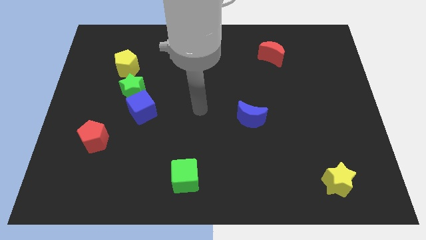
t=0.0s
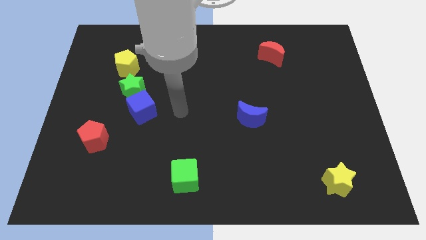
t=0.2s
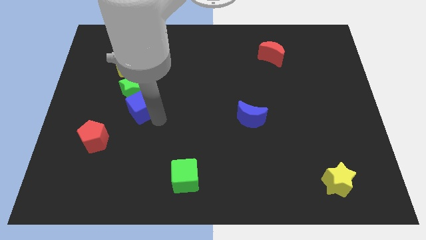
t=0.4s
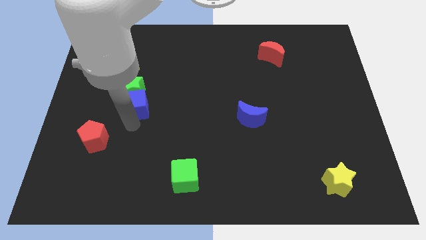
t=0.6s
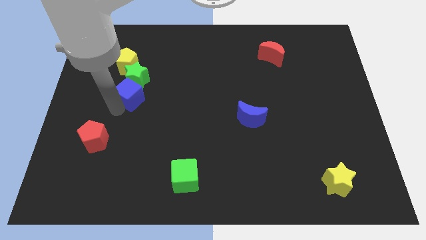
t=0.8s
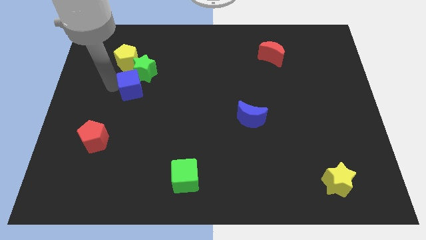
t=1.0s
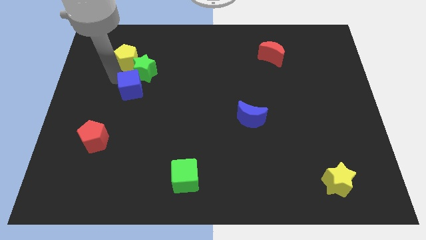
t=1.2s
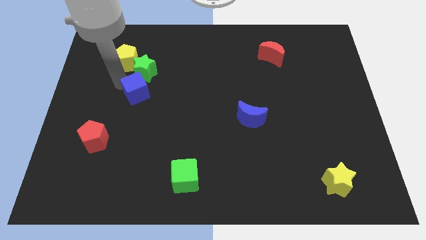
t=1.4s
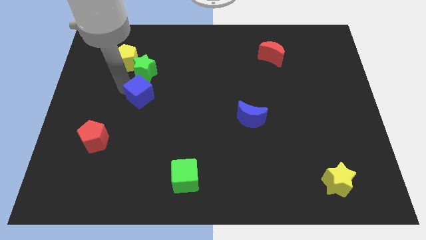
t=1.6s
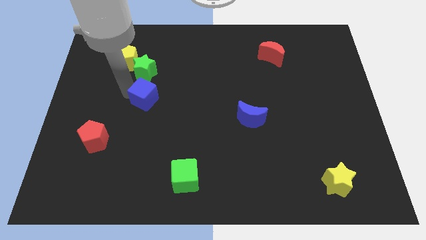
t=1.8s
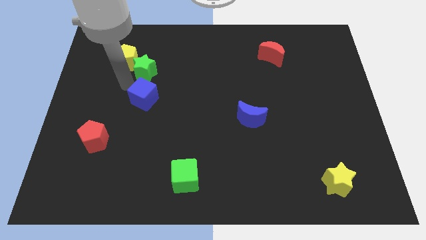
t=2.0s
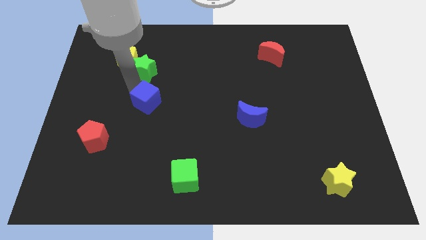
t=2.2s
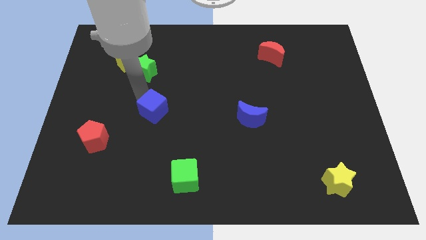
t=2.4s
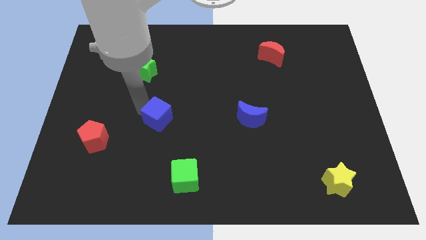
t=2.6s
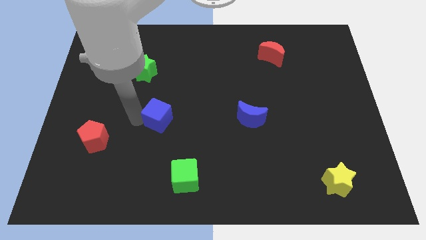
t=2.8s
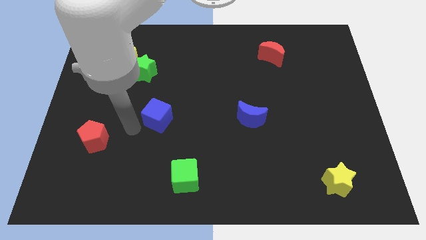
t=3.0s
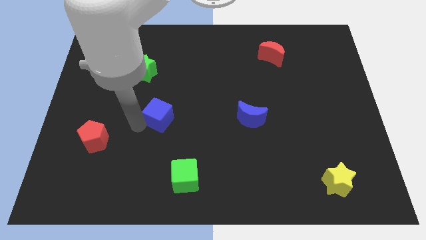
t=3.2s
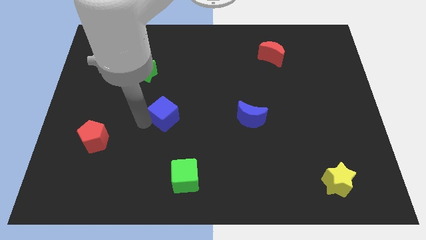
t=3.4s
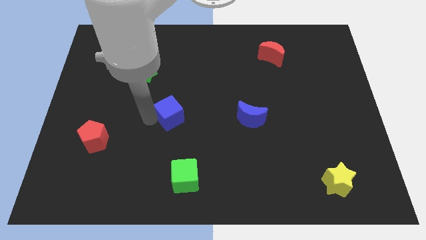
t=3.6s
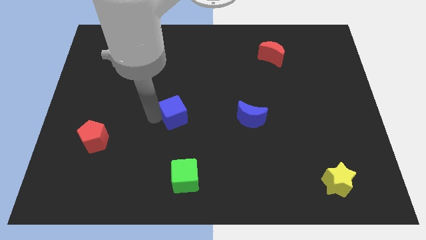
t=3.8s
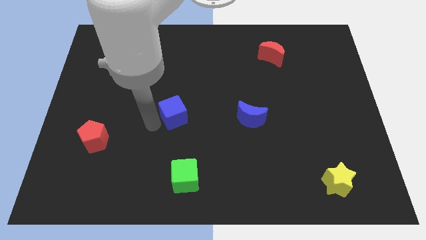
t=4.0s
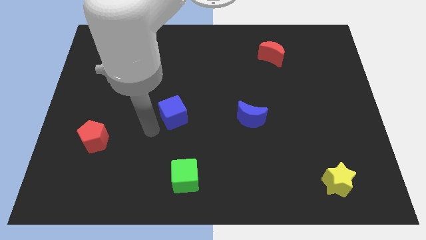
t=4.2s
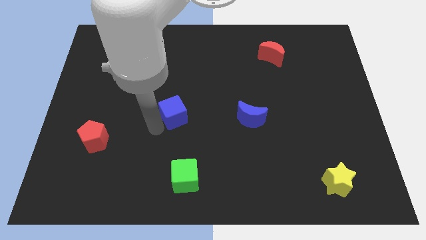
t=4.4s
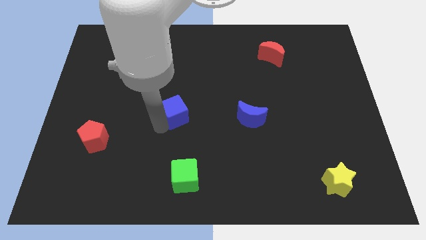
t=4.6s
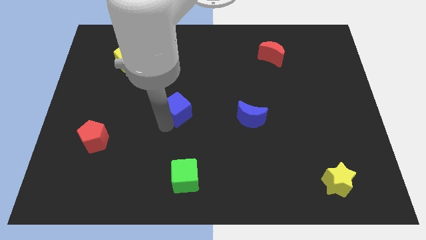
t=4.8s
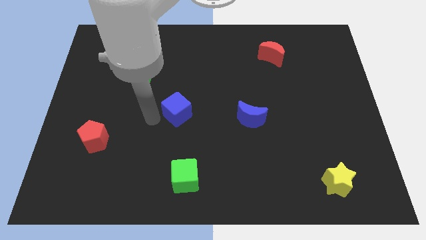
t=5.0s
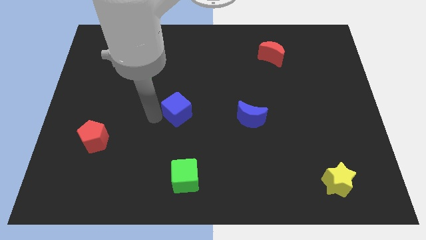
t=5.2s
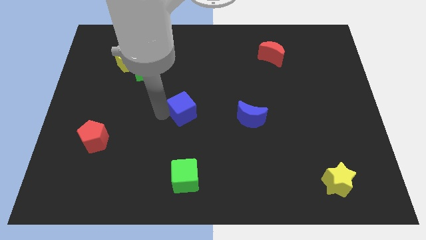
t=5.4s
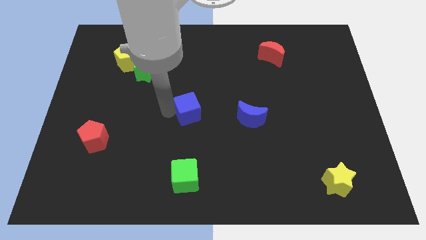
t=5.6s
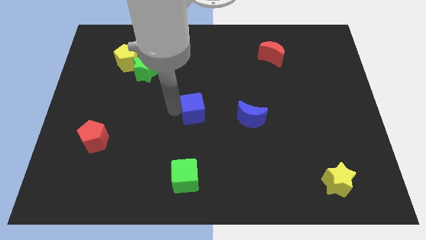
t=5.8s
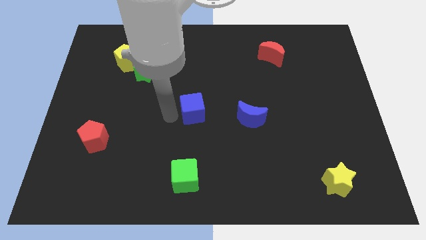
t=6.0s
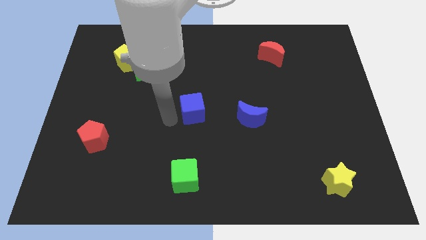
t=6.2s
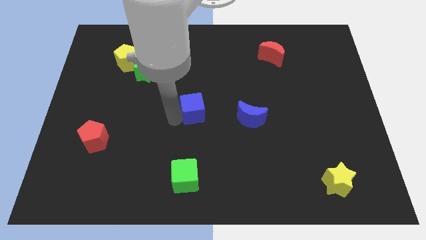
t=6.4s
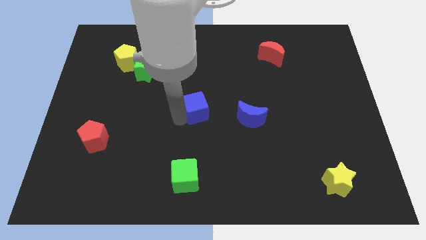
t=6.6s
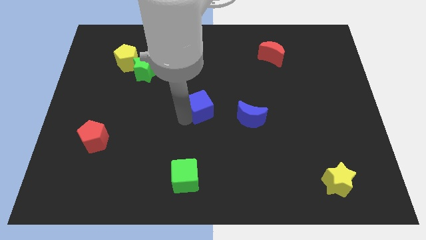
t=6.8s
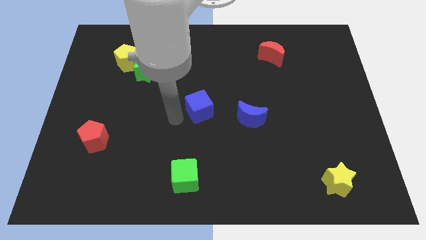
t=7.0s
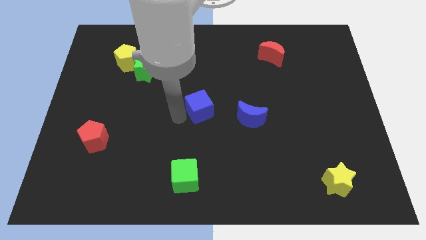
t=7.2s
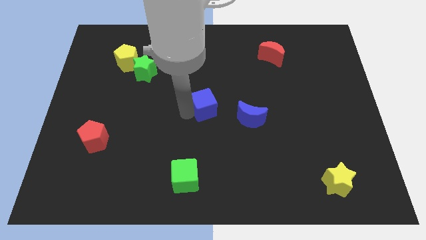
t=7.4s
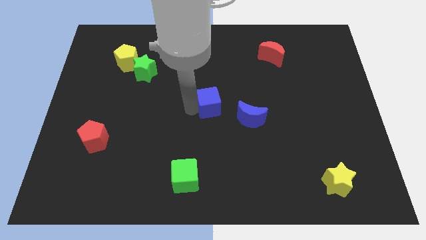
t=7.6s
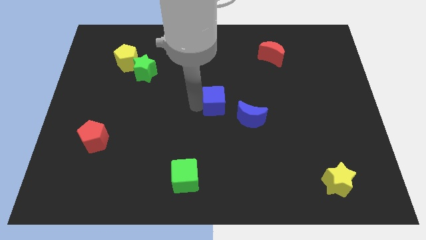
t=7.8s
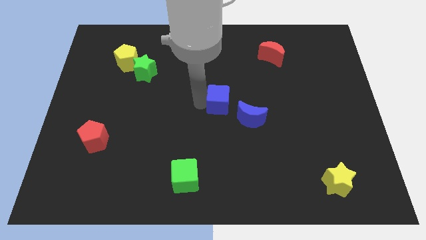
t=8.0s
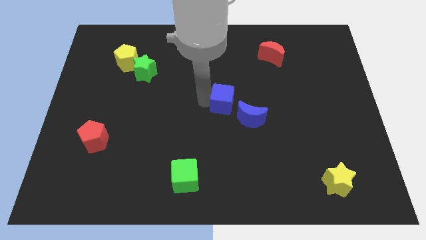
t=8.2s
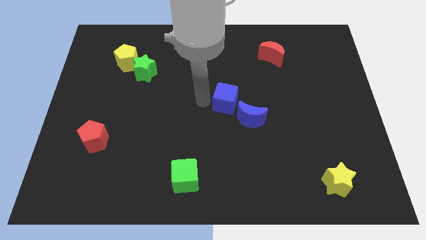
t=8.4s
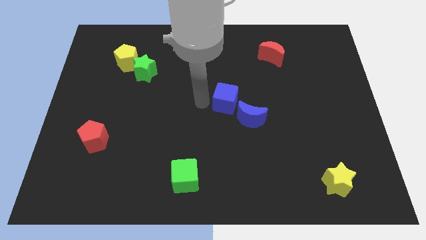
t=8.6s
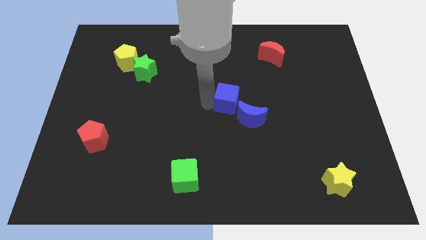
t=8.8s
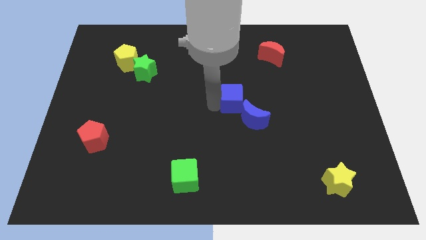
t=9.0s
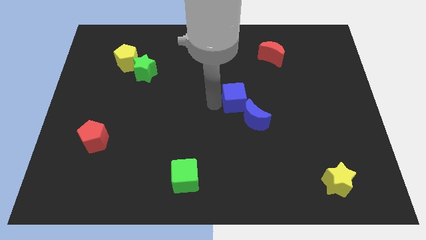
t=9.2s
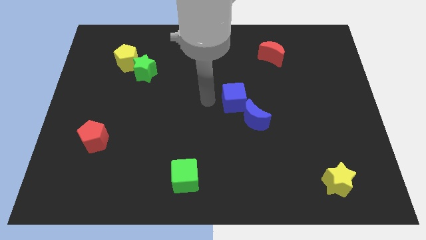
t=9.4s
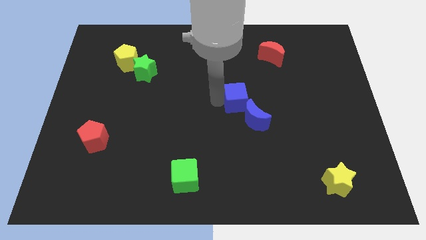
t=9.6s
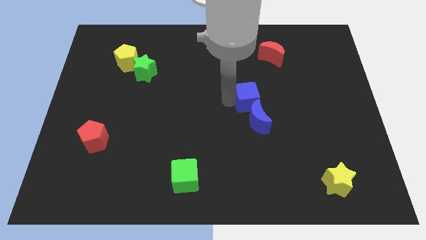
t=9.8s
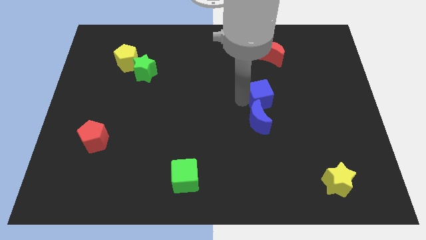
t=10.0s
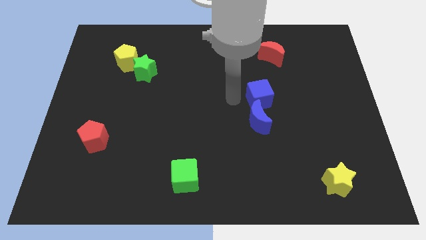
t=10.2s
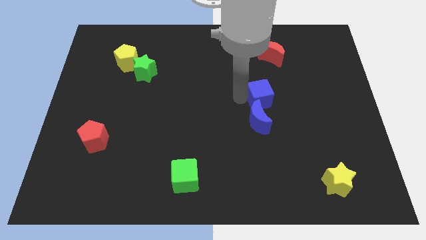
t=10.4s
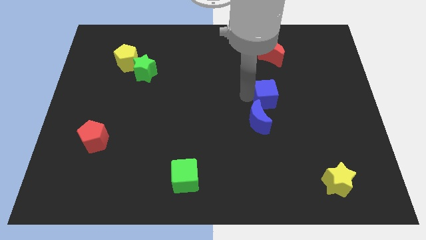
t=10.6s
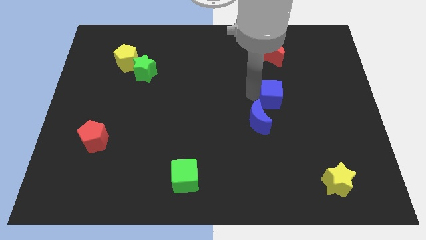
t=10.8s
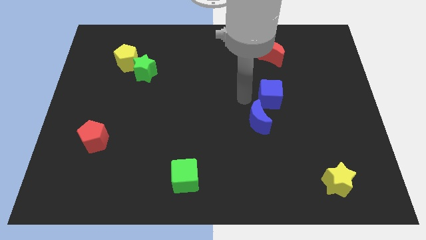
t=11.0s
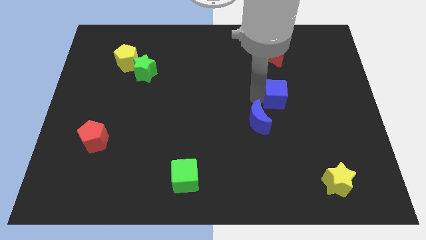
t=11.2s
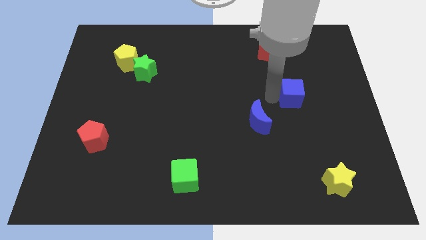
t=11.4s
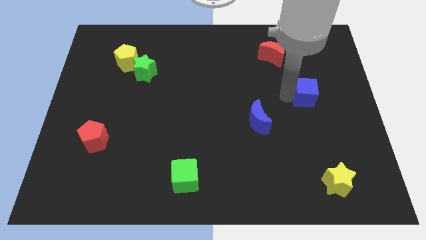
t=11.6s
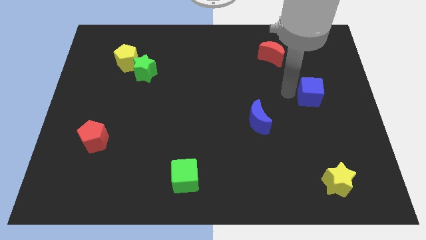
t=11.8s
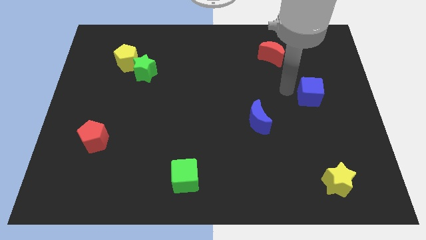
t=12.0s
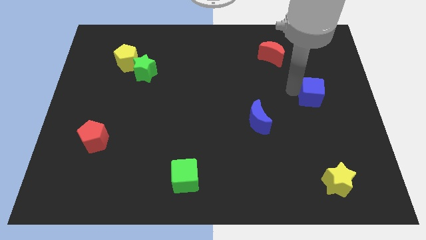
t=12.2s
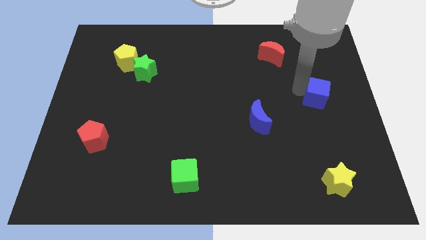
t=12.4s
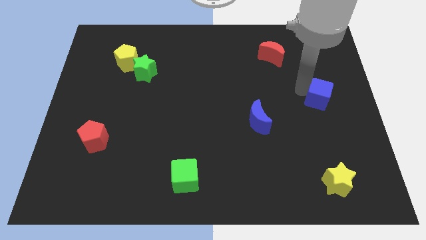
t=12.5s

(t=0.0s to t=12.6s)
move the blue cube to the center right

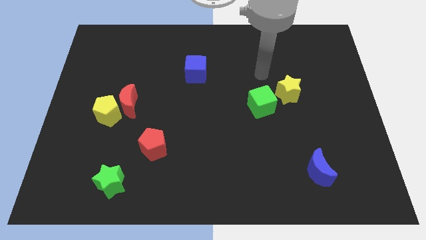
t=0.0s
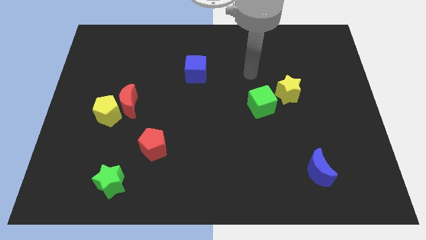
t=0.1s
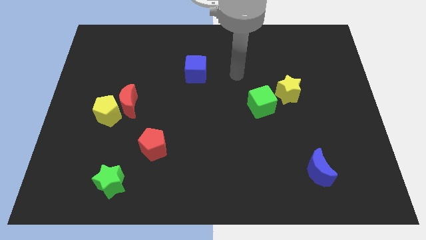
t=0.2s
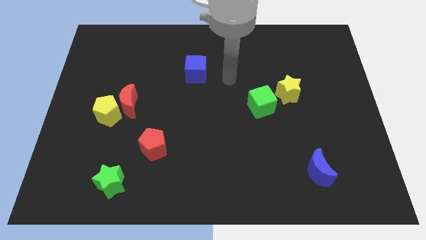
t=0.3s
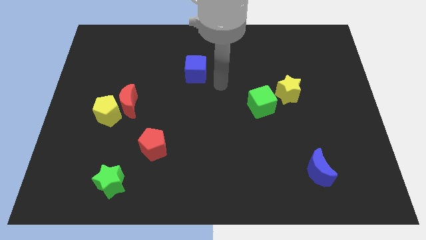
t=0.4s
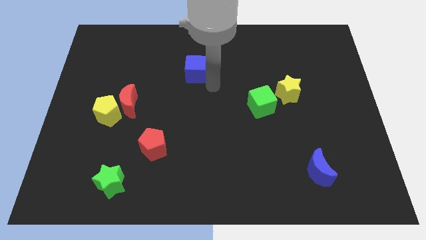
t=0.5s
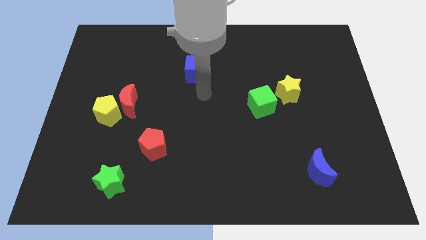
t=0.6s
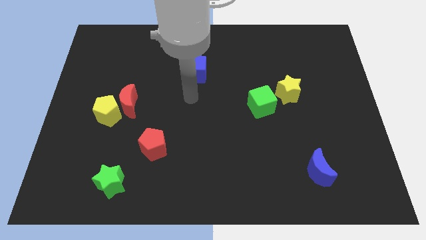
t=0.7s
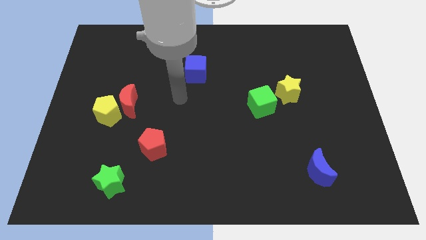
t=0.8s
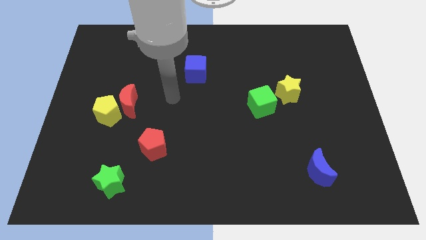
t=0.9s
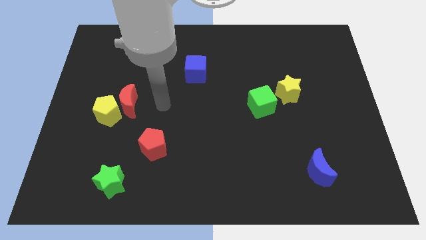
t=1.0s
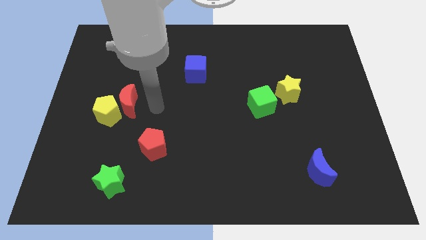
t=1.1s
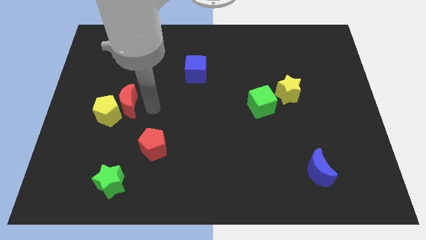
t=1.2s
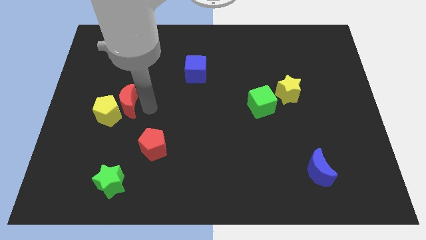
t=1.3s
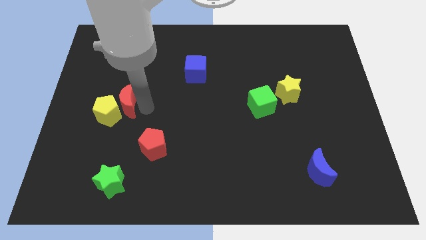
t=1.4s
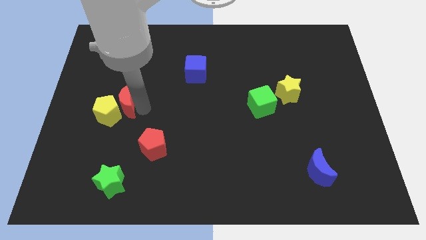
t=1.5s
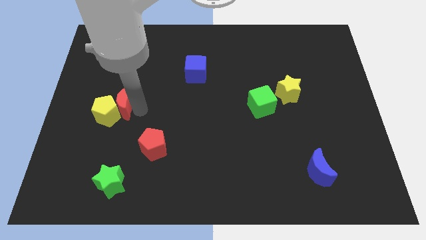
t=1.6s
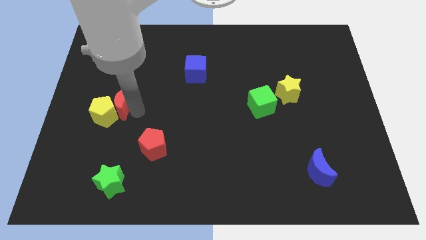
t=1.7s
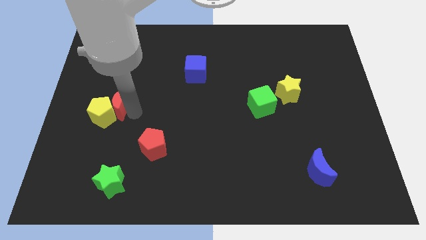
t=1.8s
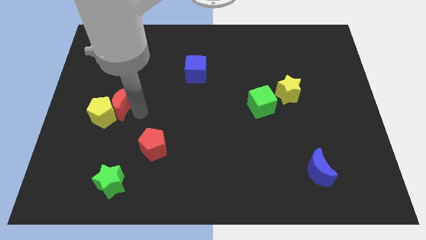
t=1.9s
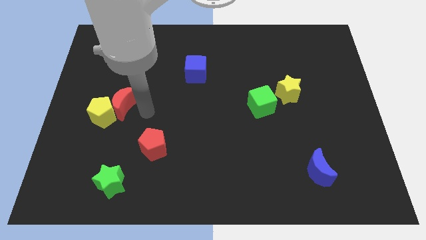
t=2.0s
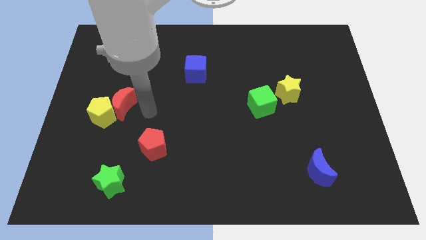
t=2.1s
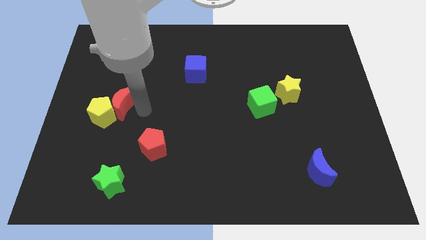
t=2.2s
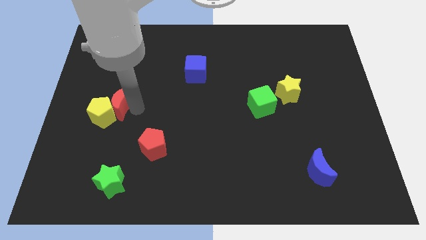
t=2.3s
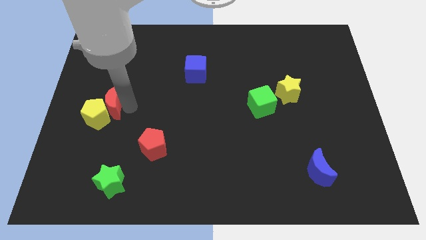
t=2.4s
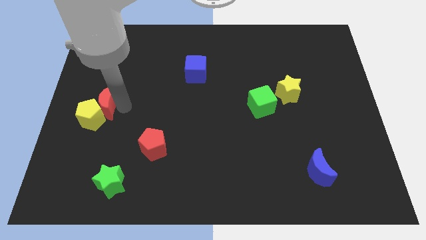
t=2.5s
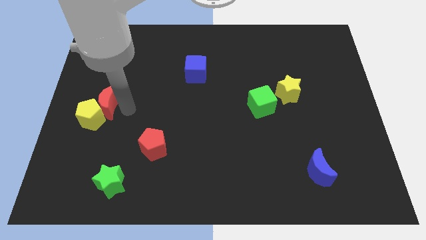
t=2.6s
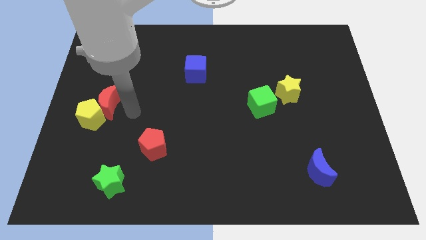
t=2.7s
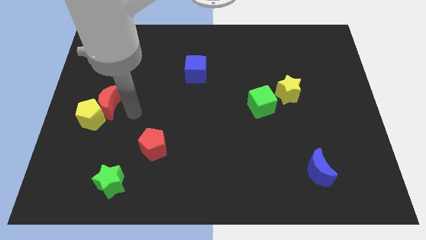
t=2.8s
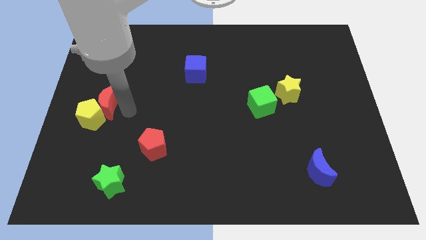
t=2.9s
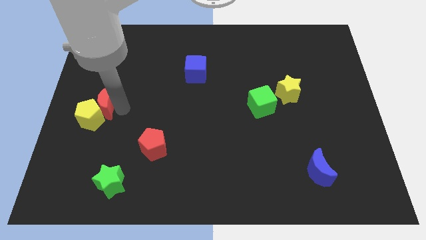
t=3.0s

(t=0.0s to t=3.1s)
push the red moon to the left side of the board
